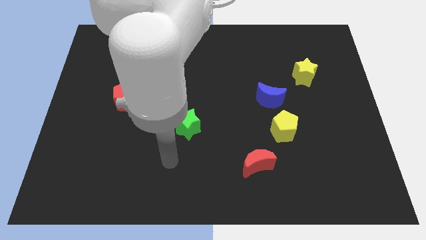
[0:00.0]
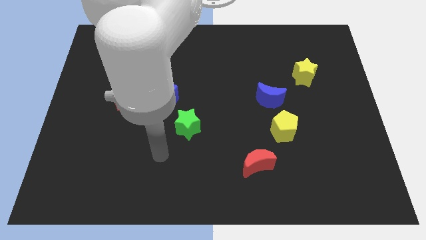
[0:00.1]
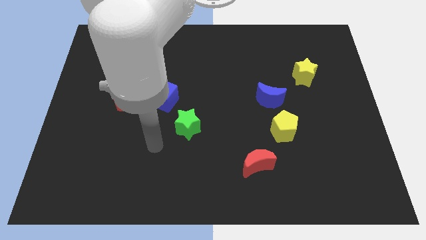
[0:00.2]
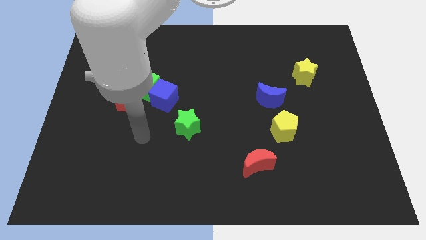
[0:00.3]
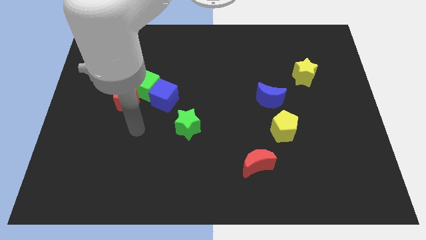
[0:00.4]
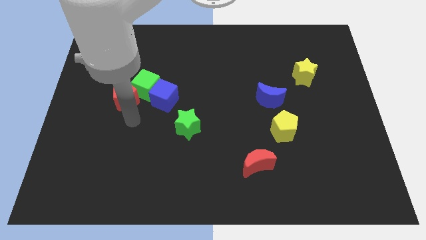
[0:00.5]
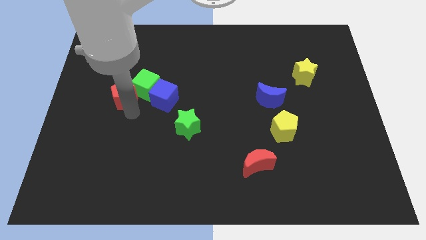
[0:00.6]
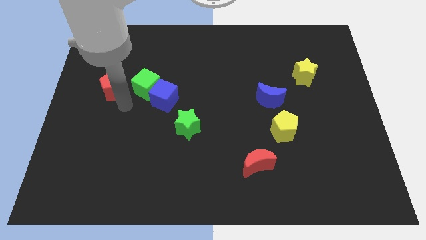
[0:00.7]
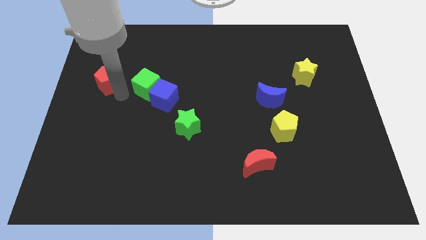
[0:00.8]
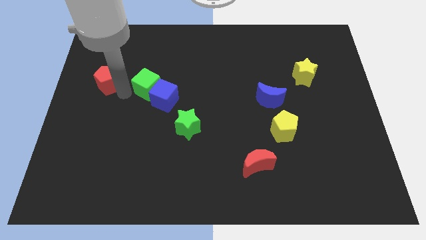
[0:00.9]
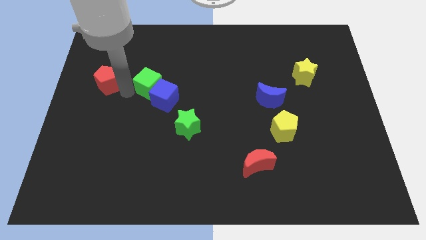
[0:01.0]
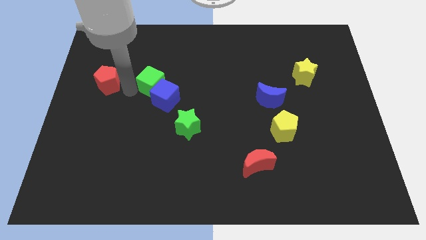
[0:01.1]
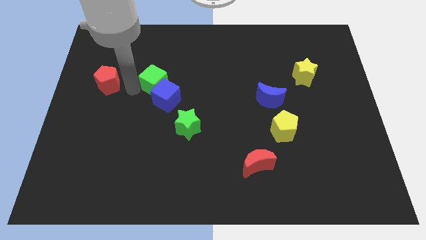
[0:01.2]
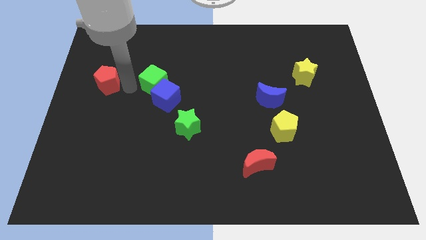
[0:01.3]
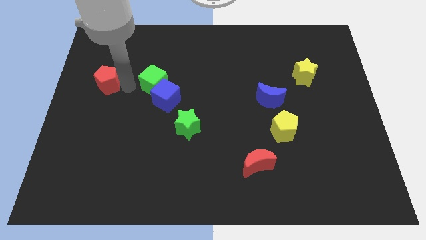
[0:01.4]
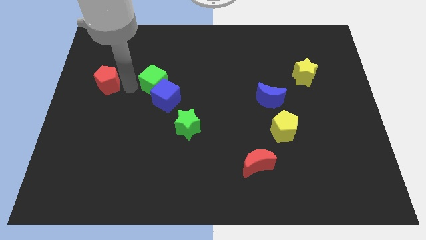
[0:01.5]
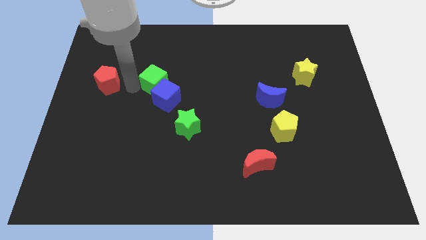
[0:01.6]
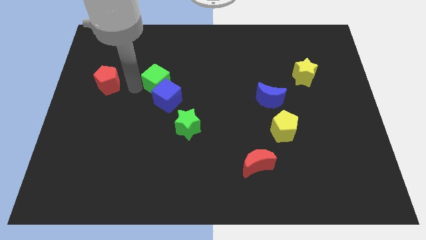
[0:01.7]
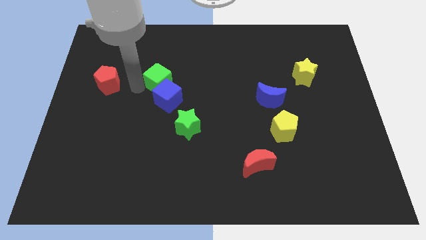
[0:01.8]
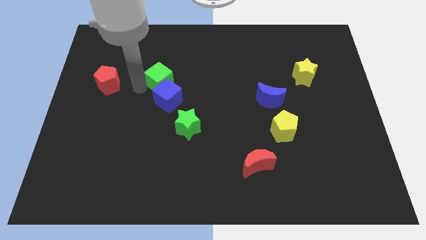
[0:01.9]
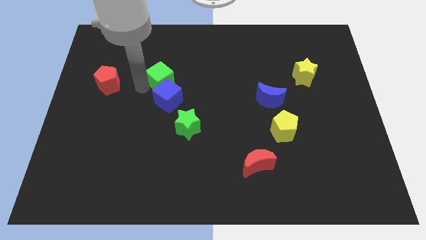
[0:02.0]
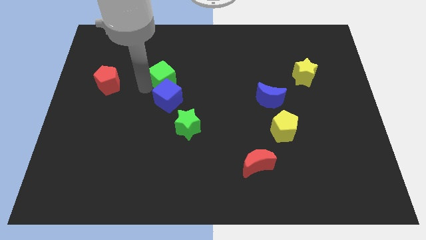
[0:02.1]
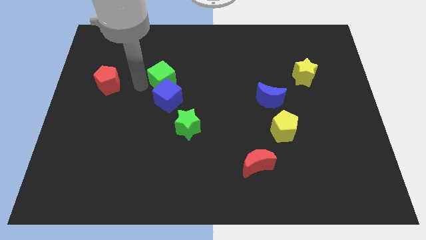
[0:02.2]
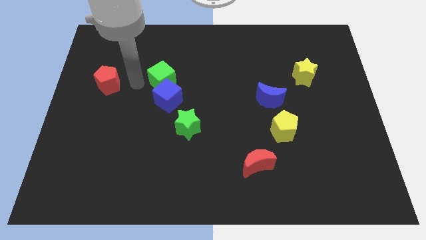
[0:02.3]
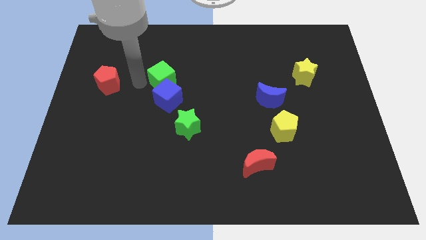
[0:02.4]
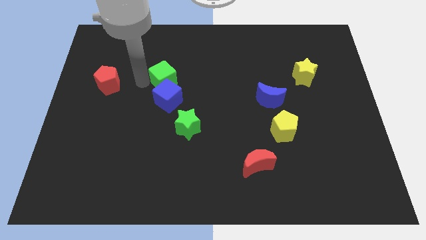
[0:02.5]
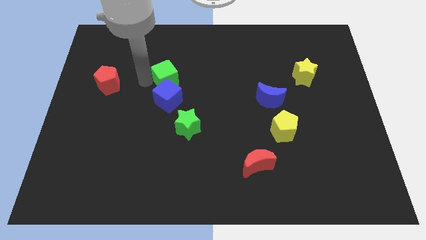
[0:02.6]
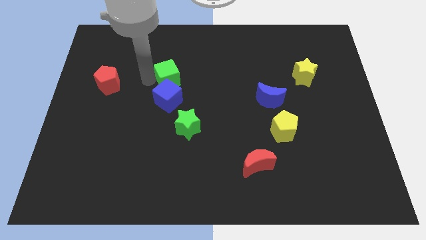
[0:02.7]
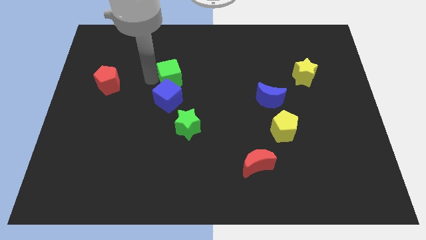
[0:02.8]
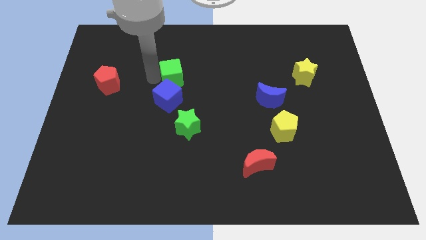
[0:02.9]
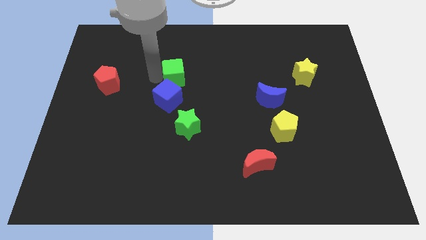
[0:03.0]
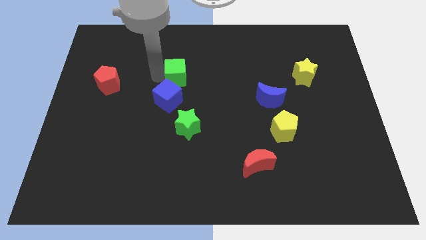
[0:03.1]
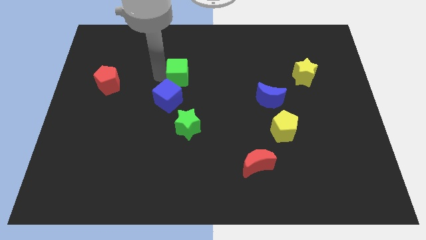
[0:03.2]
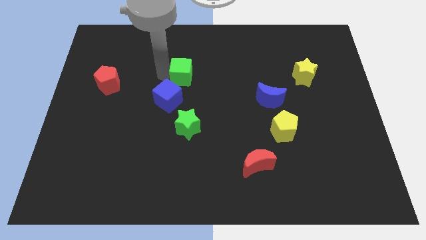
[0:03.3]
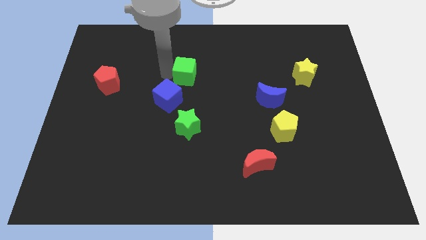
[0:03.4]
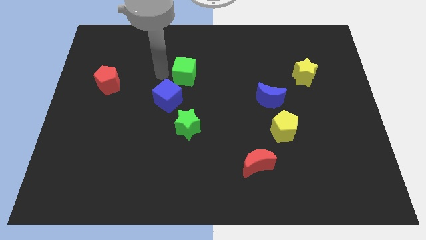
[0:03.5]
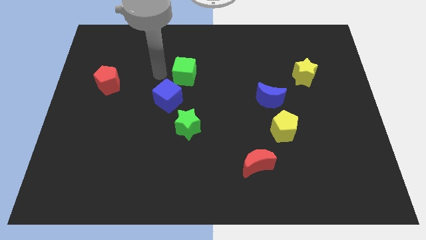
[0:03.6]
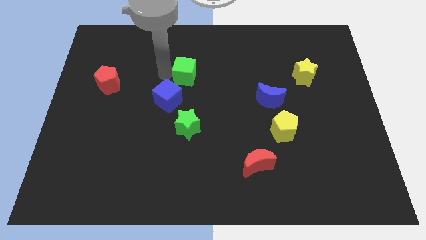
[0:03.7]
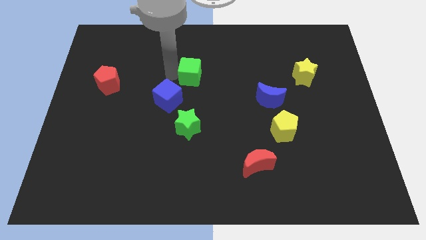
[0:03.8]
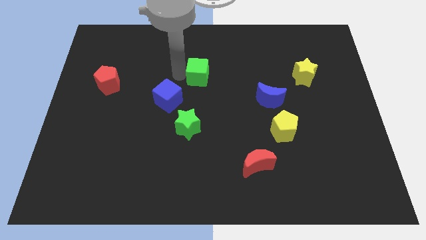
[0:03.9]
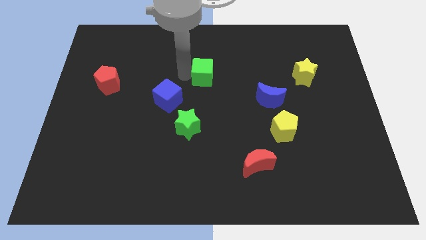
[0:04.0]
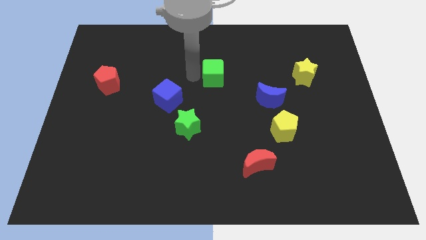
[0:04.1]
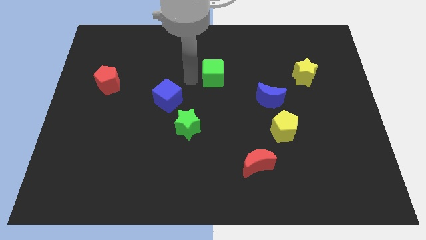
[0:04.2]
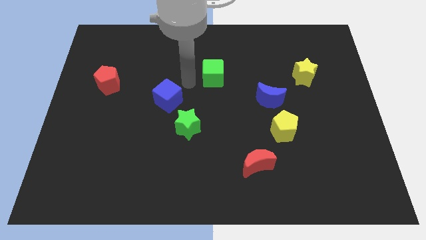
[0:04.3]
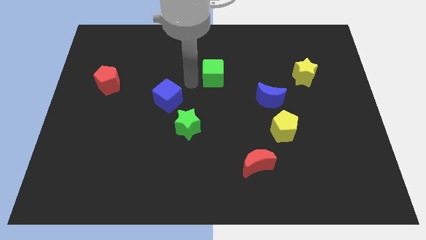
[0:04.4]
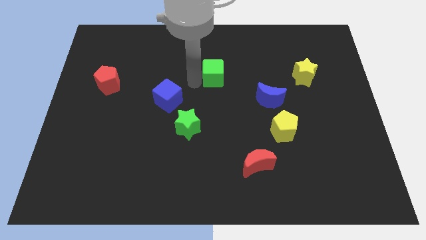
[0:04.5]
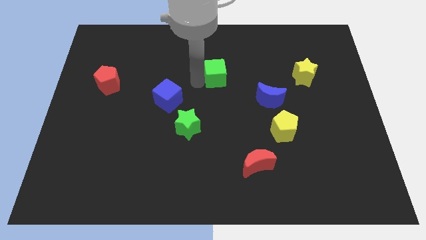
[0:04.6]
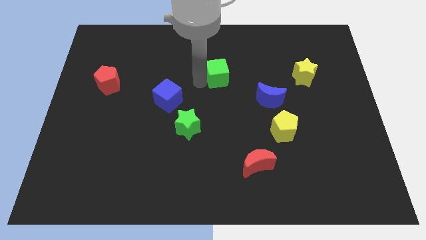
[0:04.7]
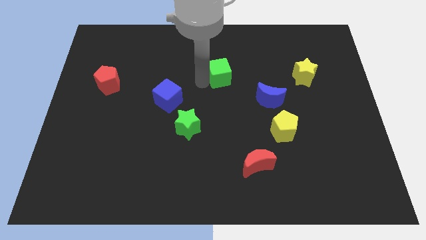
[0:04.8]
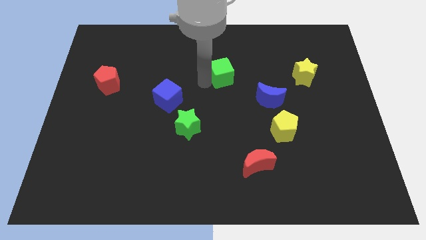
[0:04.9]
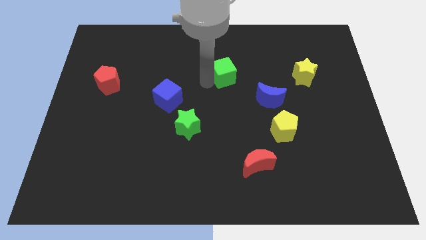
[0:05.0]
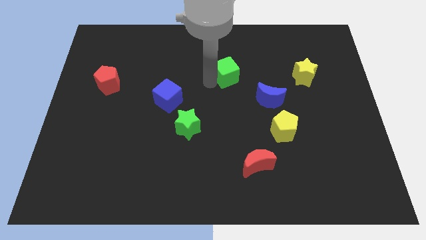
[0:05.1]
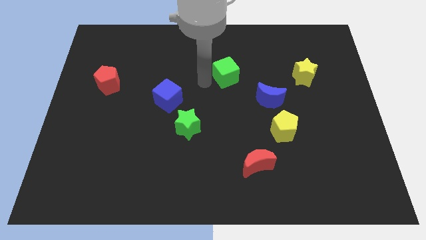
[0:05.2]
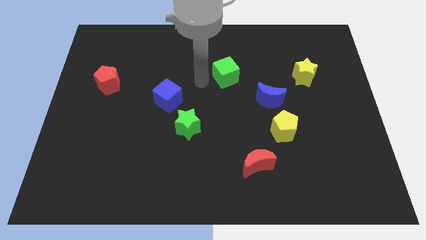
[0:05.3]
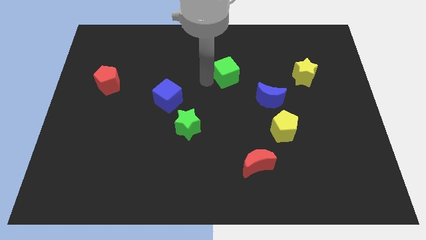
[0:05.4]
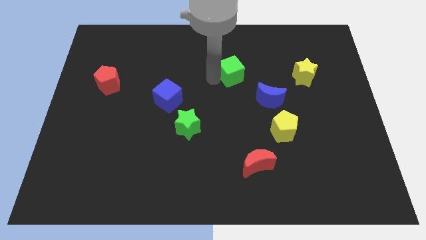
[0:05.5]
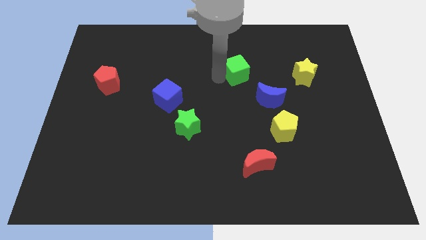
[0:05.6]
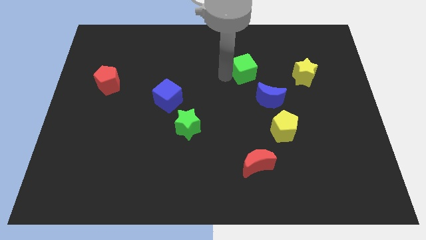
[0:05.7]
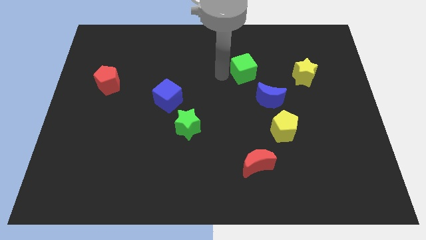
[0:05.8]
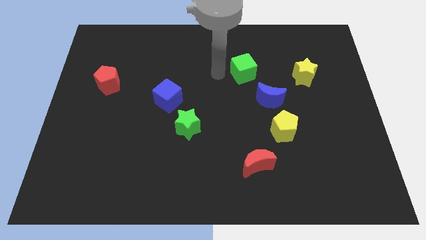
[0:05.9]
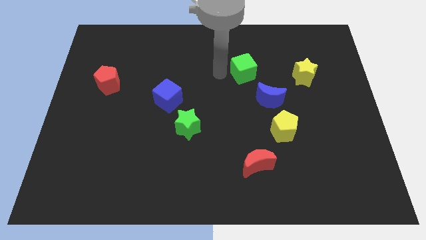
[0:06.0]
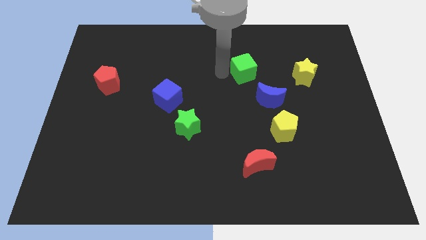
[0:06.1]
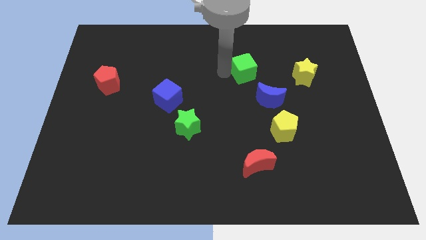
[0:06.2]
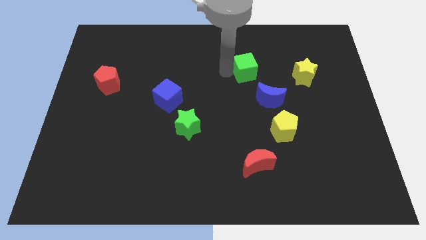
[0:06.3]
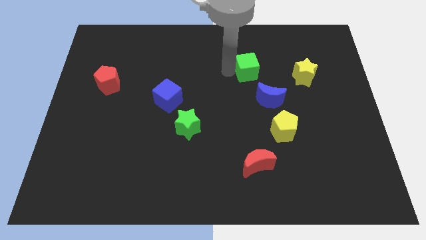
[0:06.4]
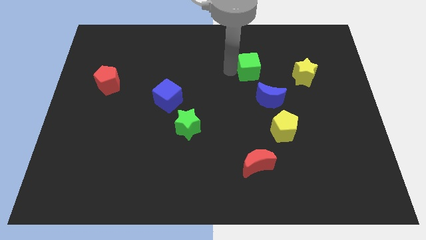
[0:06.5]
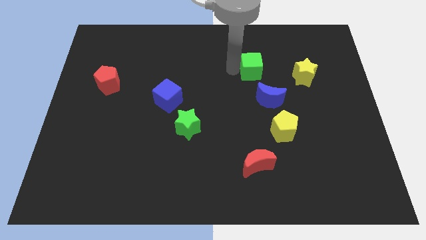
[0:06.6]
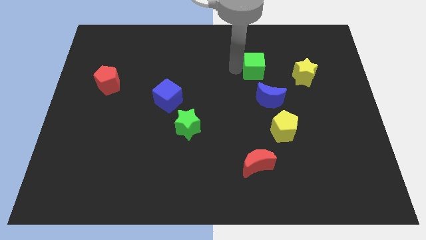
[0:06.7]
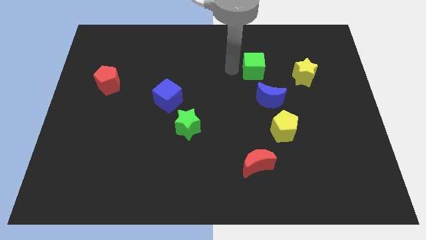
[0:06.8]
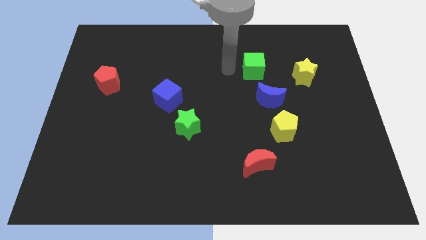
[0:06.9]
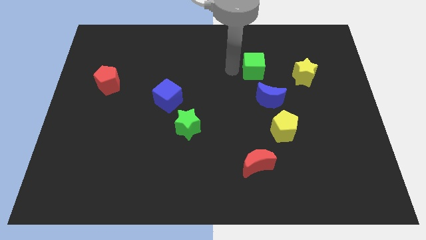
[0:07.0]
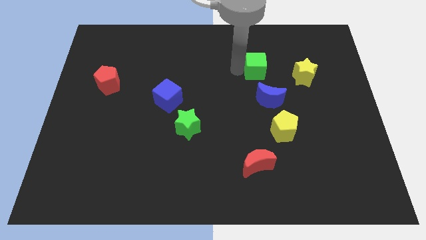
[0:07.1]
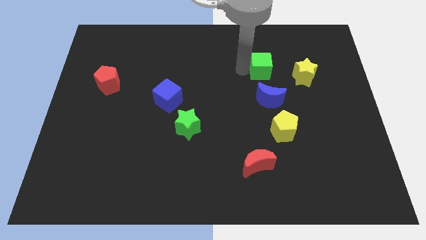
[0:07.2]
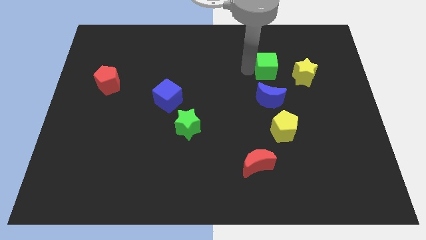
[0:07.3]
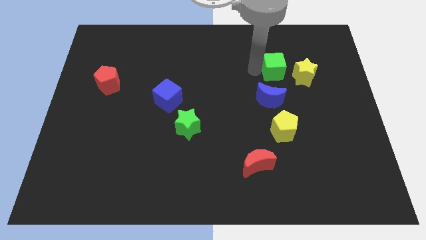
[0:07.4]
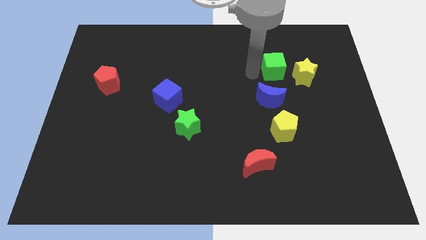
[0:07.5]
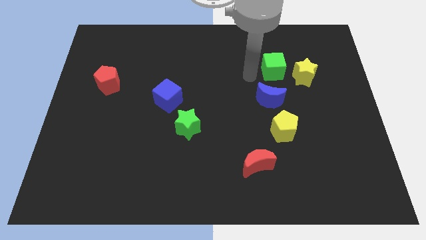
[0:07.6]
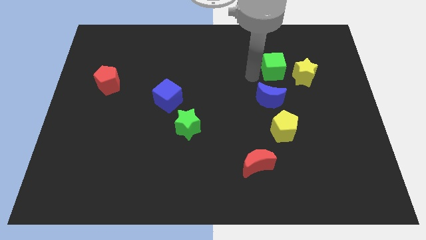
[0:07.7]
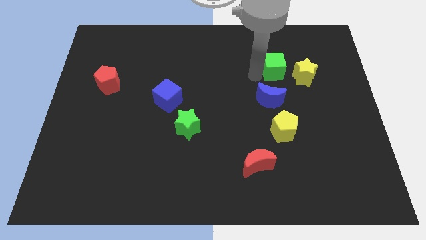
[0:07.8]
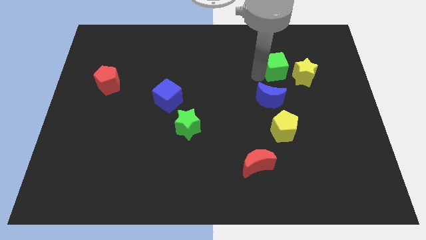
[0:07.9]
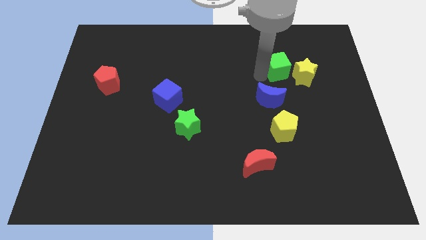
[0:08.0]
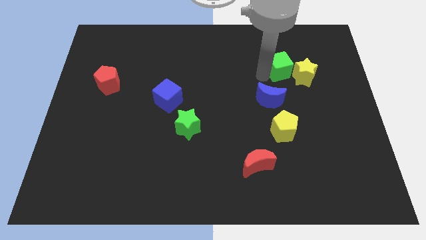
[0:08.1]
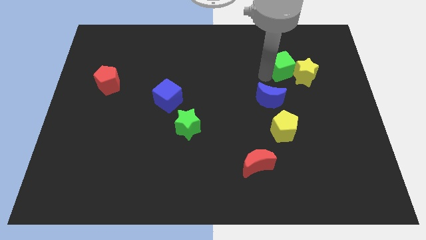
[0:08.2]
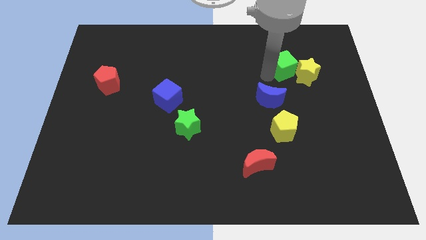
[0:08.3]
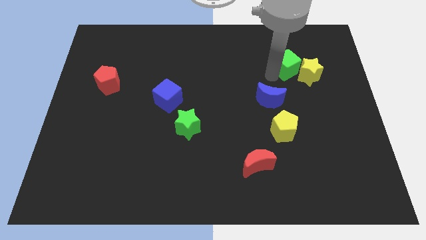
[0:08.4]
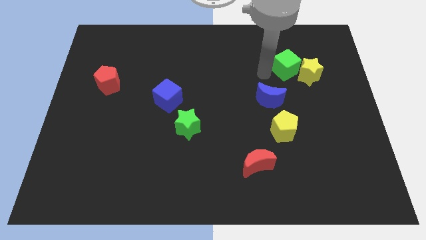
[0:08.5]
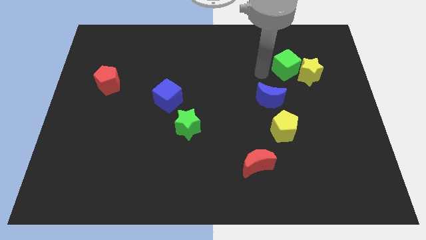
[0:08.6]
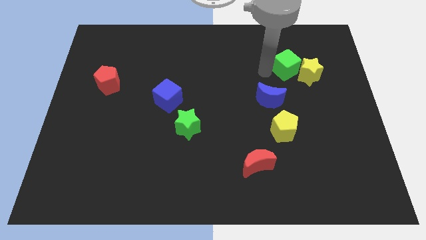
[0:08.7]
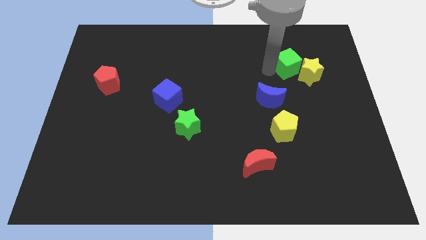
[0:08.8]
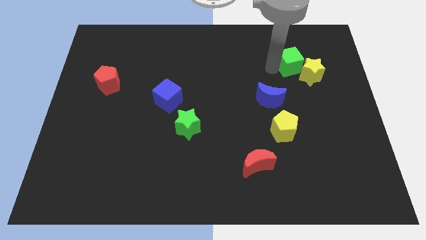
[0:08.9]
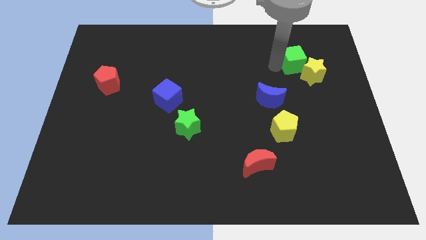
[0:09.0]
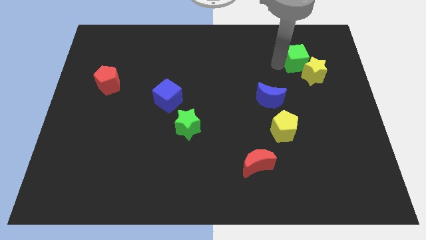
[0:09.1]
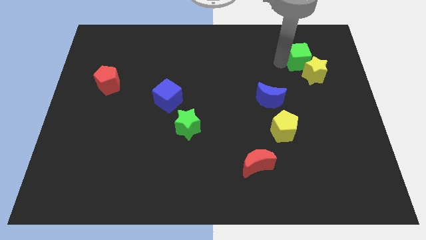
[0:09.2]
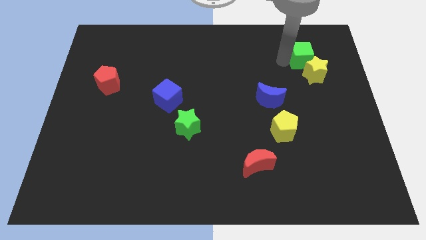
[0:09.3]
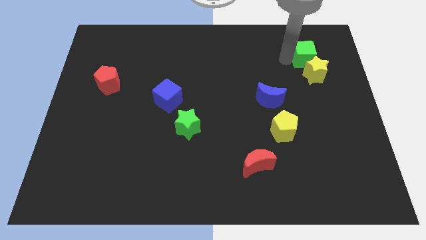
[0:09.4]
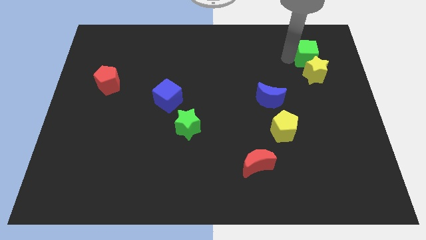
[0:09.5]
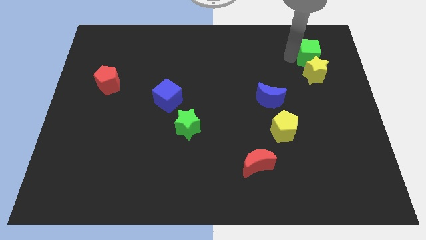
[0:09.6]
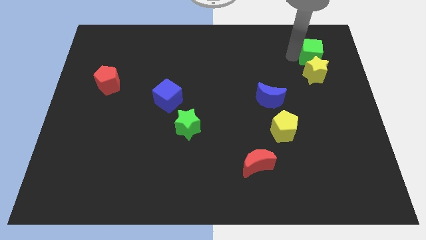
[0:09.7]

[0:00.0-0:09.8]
put the green cube to the top right of the yellow star
